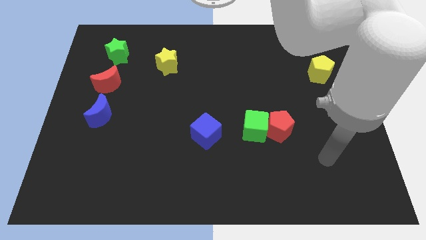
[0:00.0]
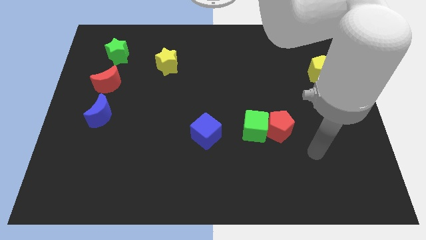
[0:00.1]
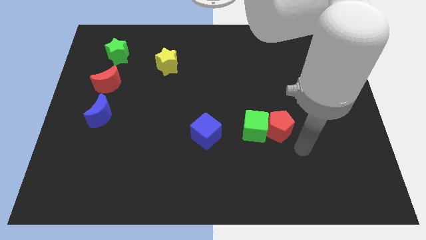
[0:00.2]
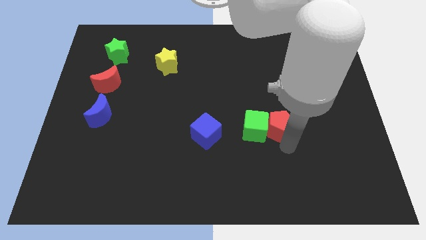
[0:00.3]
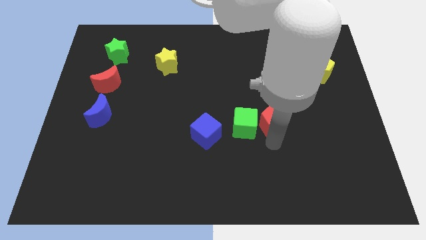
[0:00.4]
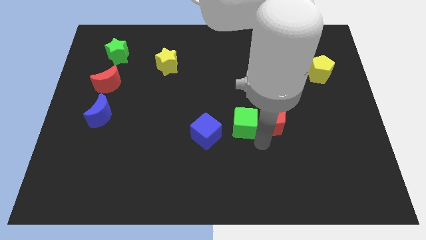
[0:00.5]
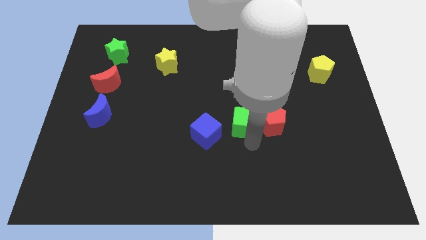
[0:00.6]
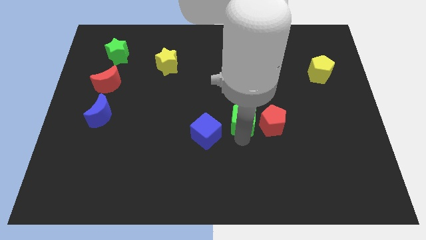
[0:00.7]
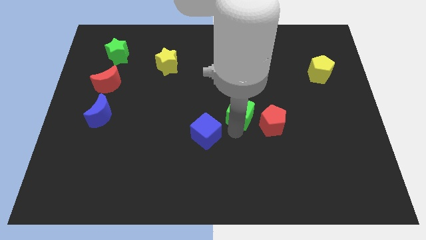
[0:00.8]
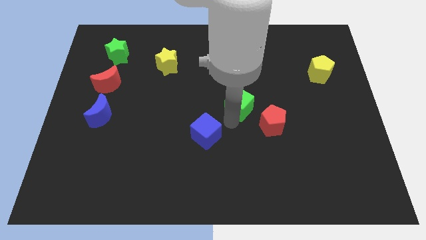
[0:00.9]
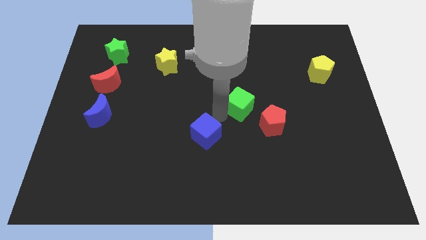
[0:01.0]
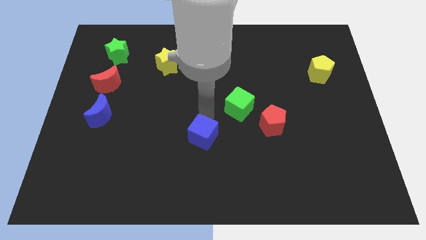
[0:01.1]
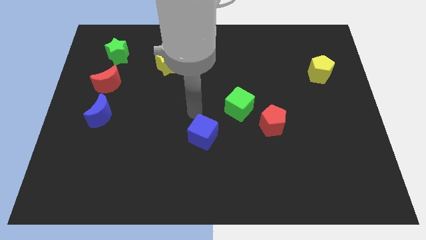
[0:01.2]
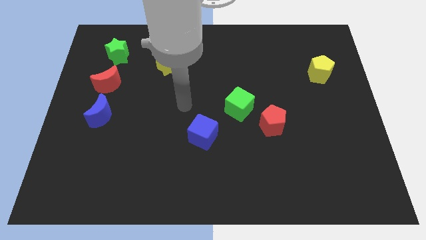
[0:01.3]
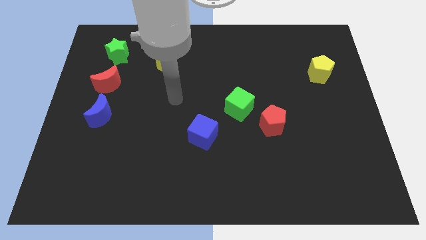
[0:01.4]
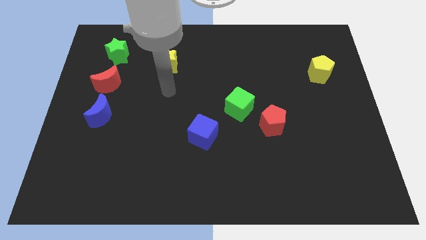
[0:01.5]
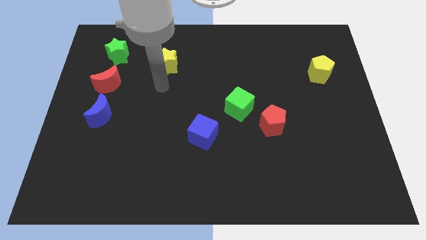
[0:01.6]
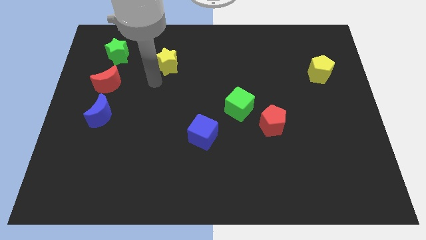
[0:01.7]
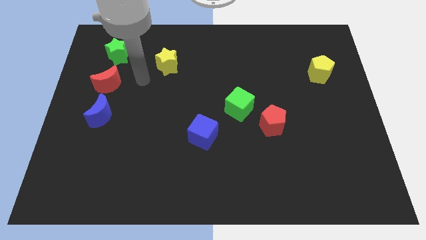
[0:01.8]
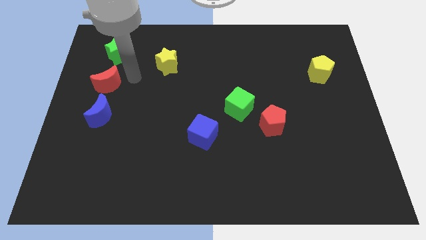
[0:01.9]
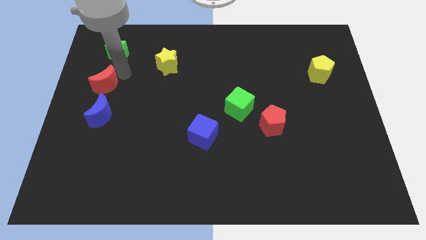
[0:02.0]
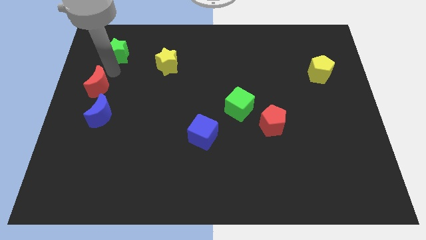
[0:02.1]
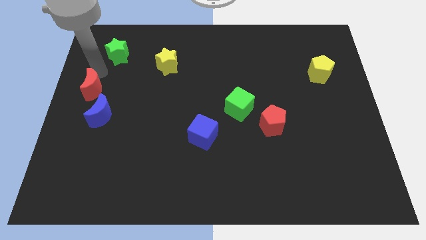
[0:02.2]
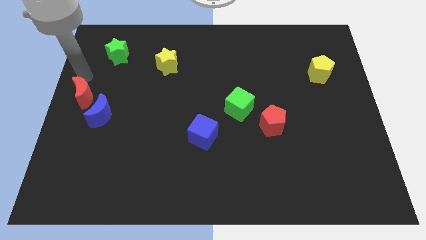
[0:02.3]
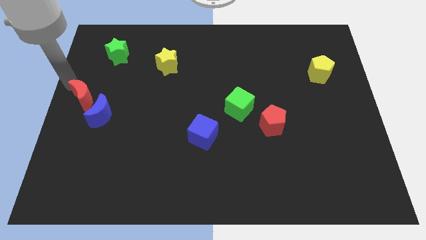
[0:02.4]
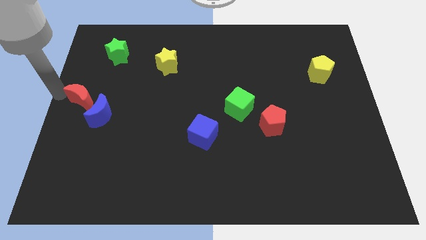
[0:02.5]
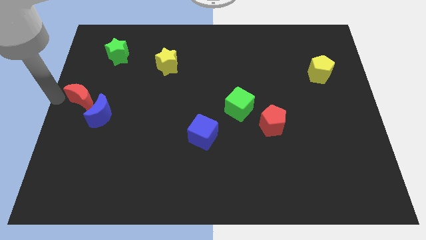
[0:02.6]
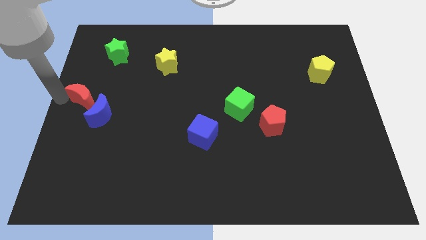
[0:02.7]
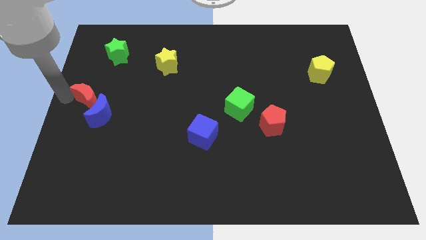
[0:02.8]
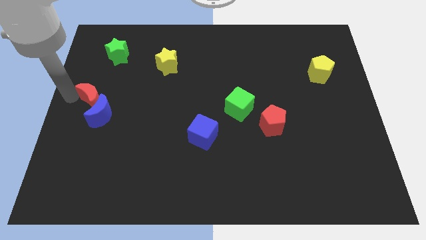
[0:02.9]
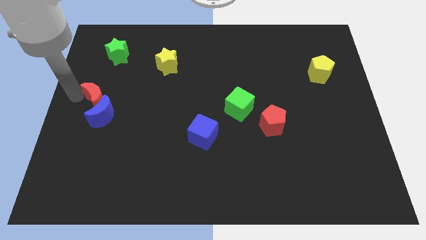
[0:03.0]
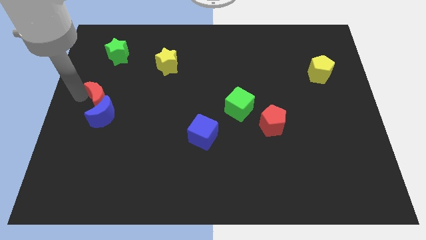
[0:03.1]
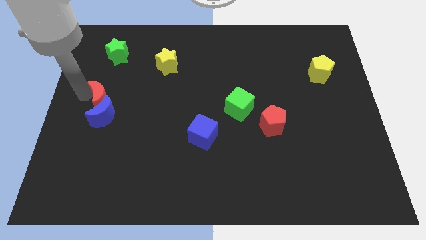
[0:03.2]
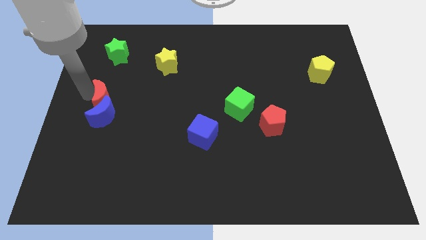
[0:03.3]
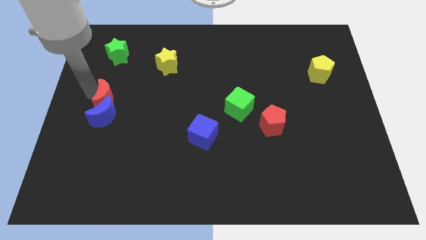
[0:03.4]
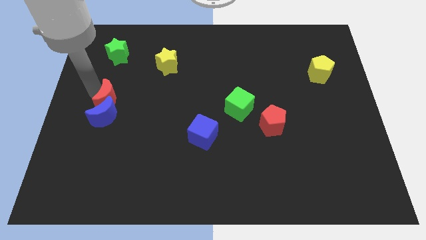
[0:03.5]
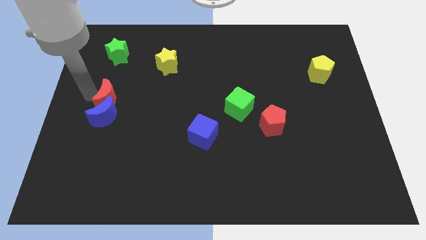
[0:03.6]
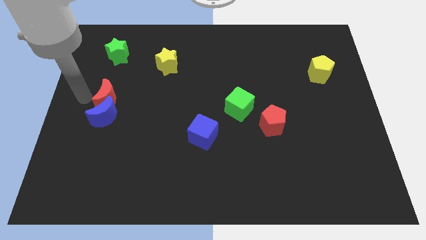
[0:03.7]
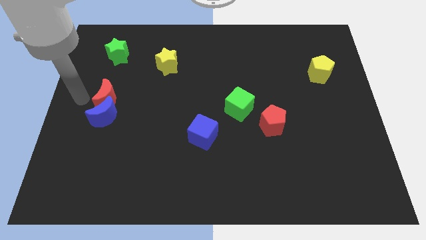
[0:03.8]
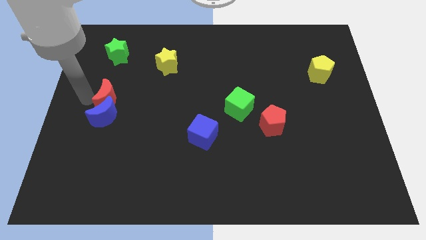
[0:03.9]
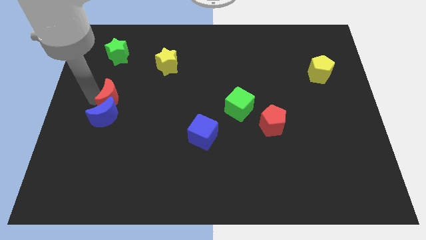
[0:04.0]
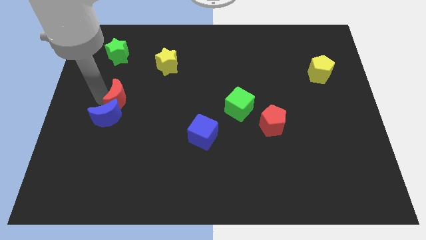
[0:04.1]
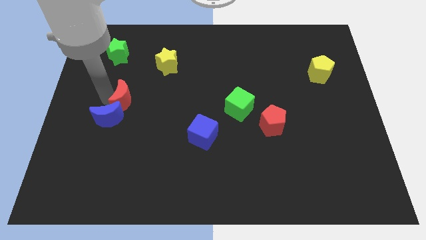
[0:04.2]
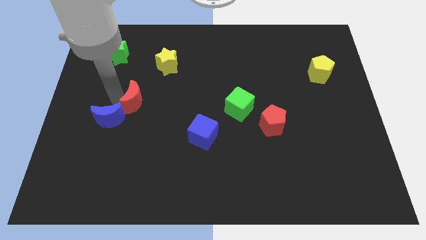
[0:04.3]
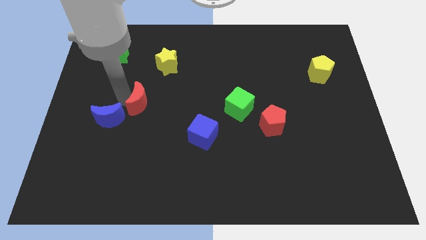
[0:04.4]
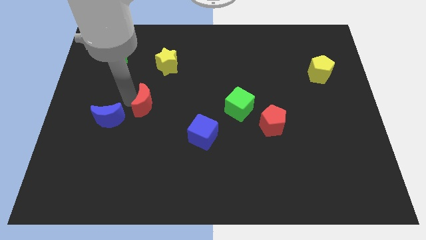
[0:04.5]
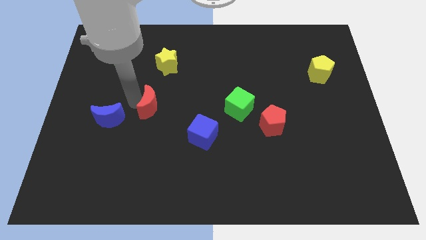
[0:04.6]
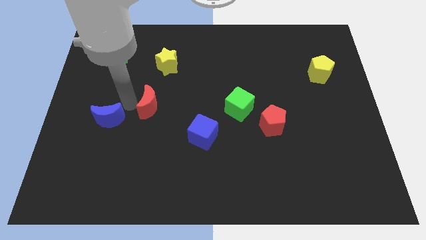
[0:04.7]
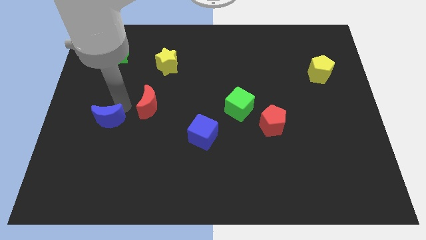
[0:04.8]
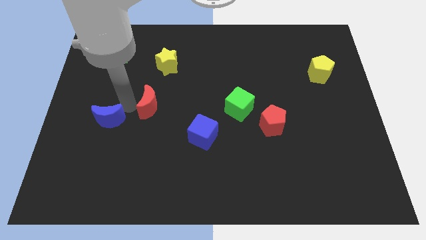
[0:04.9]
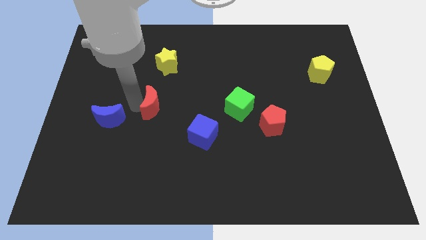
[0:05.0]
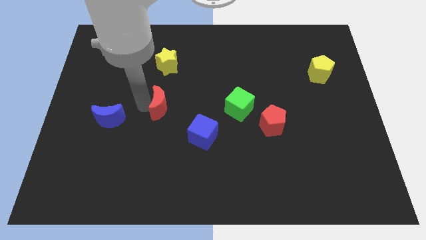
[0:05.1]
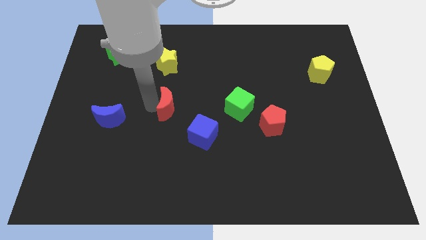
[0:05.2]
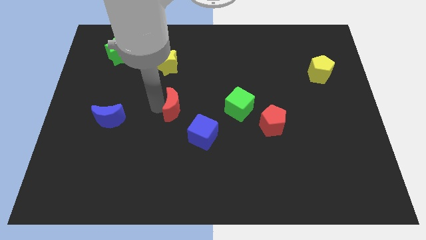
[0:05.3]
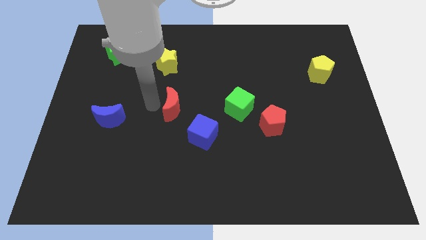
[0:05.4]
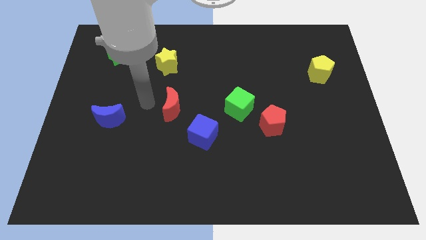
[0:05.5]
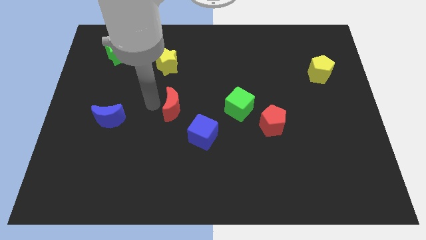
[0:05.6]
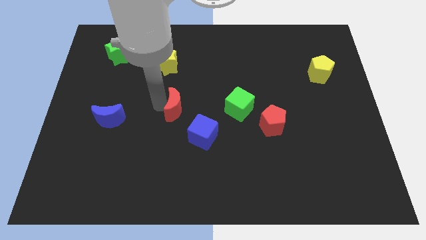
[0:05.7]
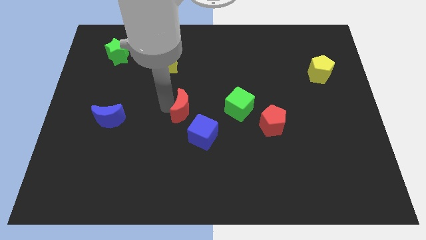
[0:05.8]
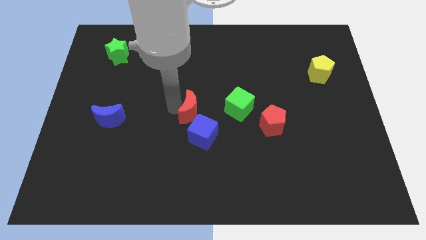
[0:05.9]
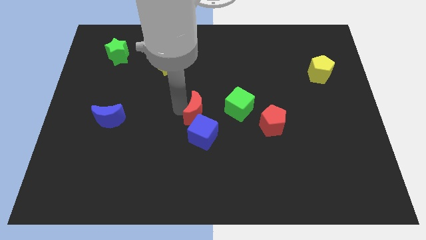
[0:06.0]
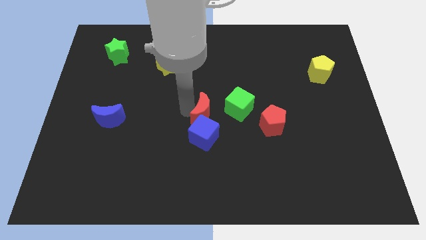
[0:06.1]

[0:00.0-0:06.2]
slide the red moon to the top right side of the blue cube

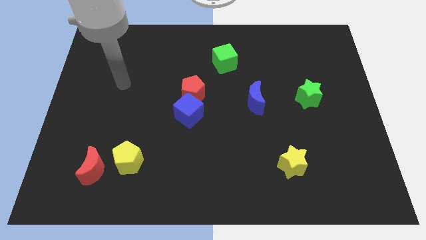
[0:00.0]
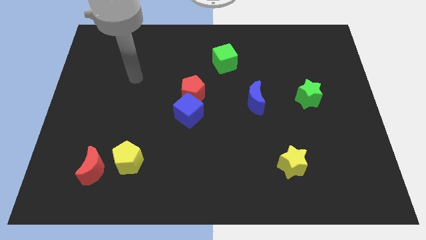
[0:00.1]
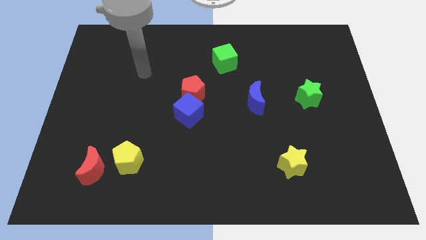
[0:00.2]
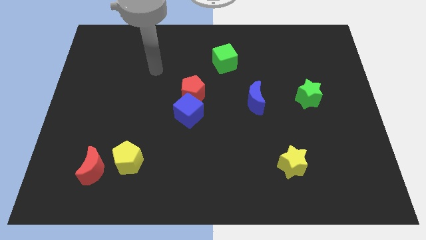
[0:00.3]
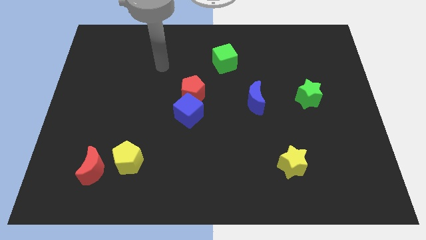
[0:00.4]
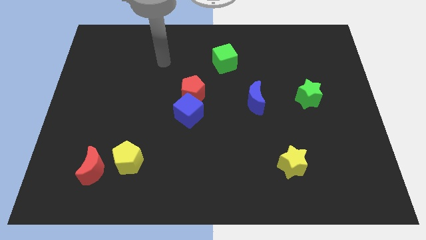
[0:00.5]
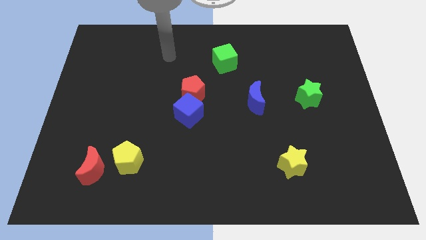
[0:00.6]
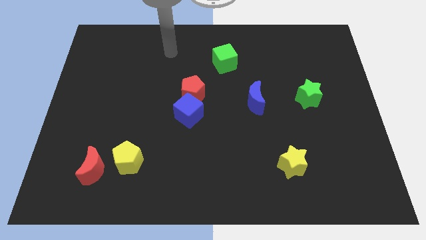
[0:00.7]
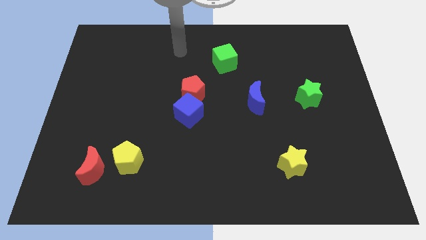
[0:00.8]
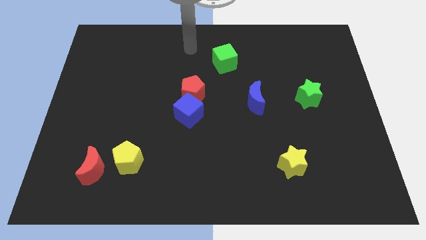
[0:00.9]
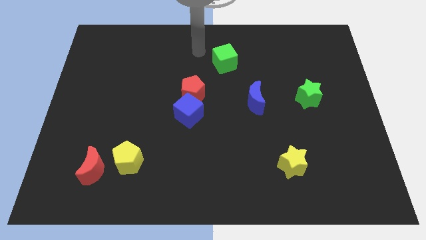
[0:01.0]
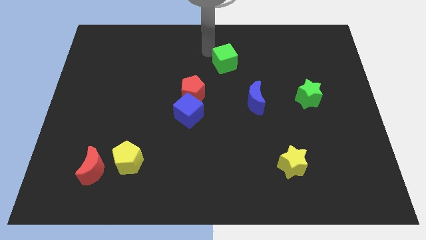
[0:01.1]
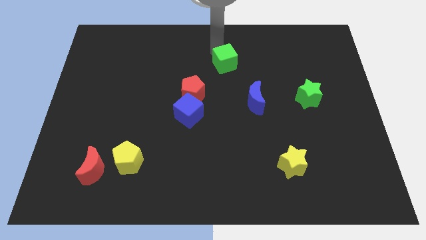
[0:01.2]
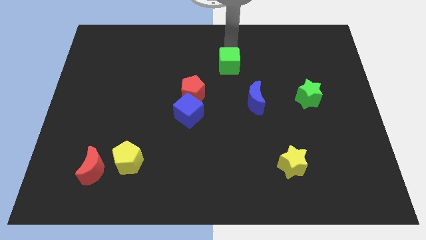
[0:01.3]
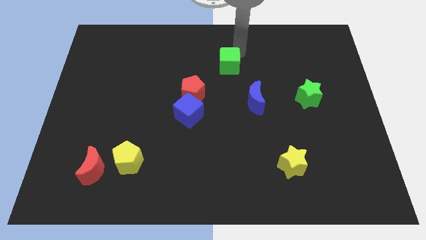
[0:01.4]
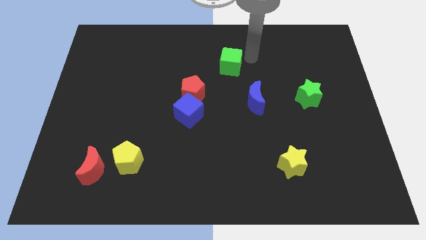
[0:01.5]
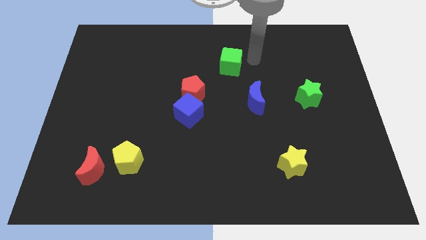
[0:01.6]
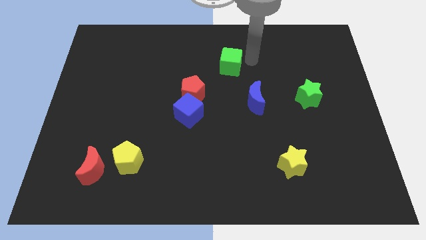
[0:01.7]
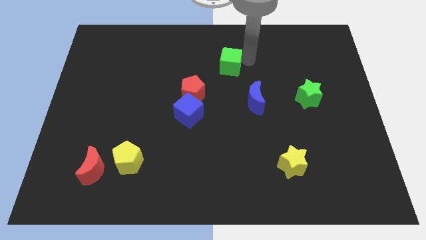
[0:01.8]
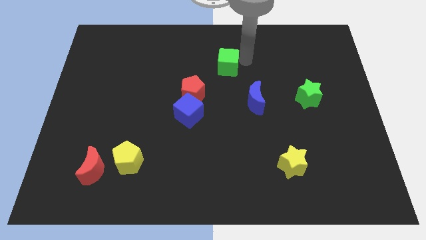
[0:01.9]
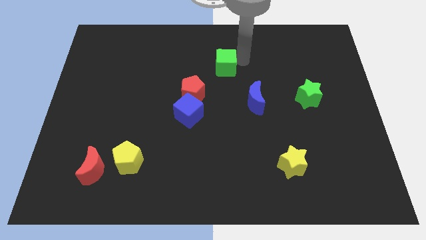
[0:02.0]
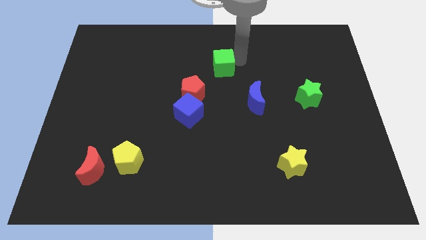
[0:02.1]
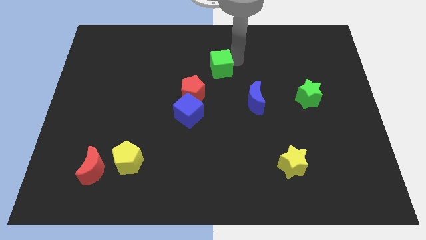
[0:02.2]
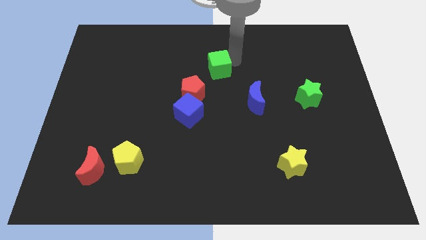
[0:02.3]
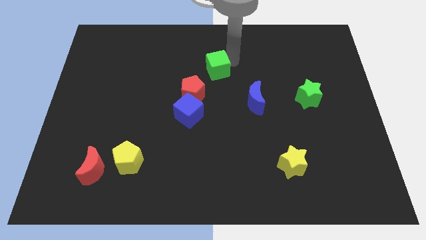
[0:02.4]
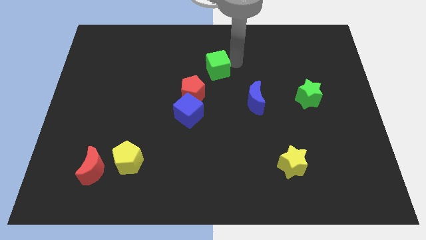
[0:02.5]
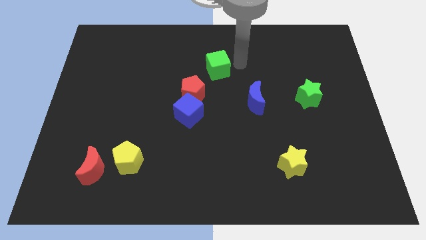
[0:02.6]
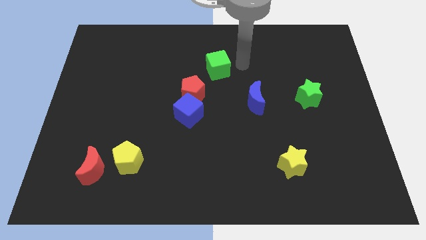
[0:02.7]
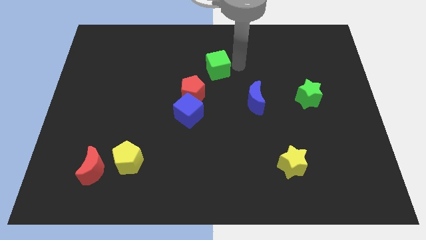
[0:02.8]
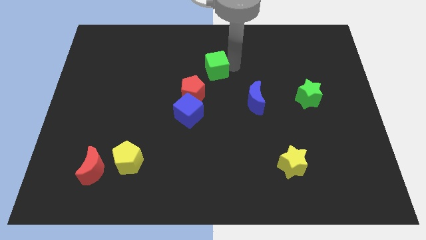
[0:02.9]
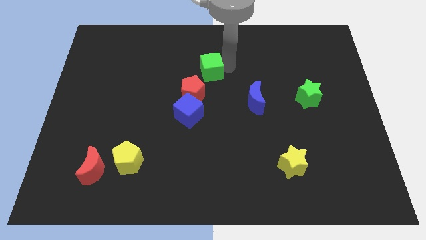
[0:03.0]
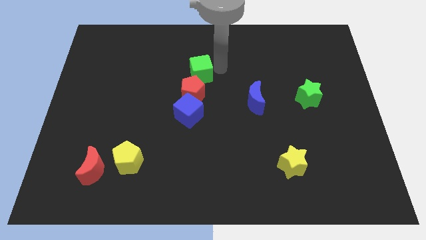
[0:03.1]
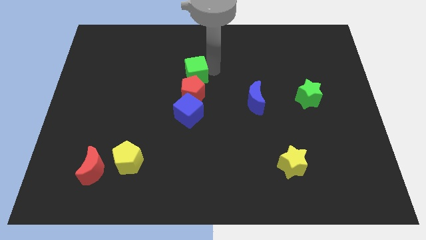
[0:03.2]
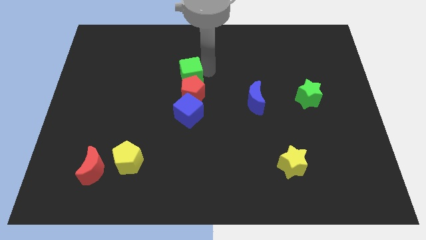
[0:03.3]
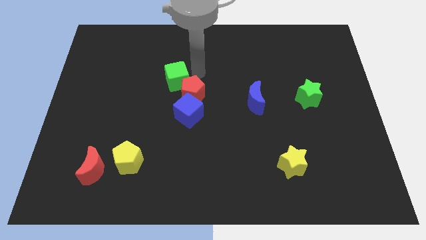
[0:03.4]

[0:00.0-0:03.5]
put the green cube just left of the red pentagon
